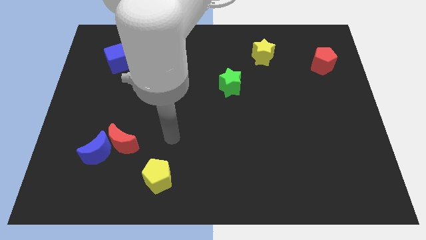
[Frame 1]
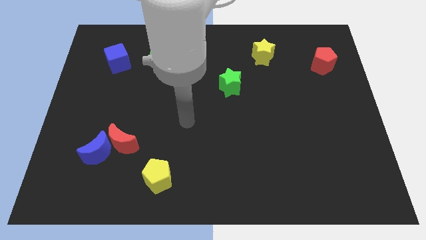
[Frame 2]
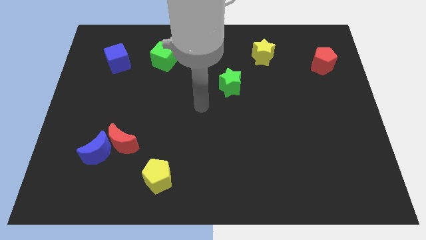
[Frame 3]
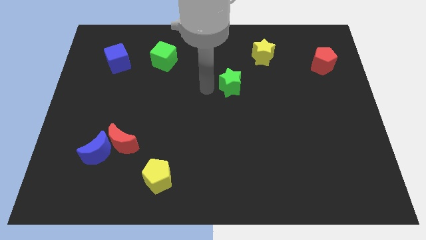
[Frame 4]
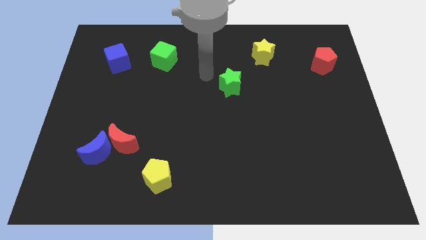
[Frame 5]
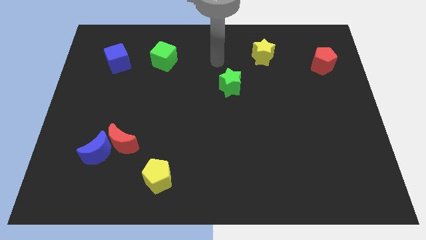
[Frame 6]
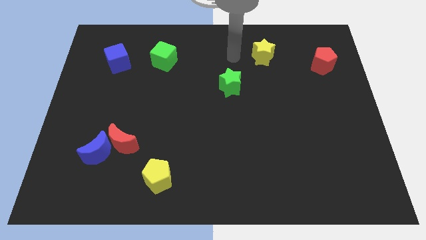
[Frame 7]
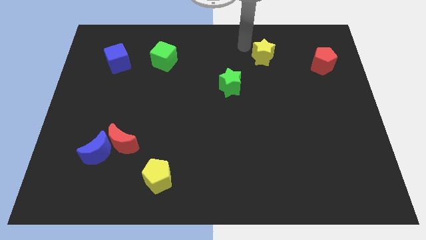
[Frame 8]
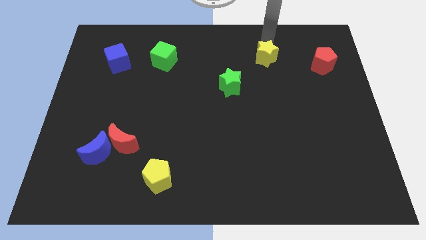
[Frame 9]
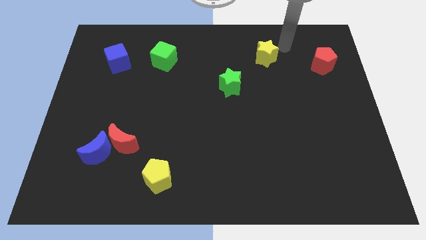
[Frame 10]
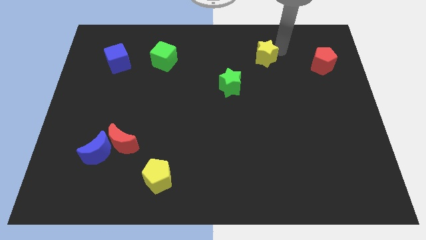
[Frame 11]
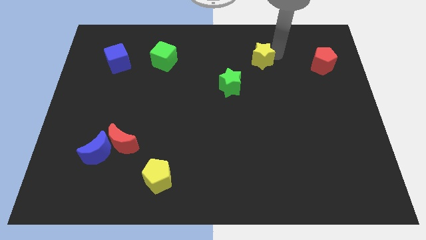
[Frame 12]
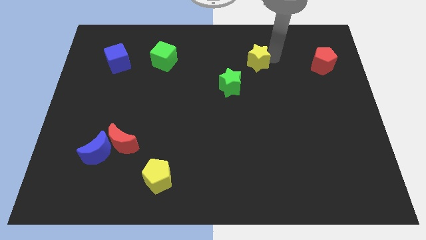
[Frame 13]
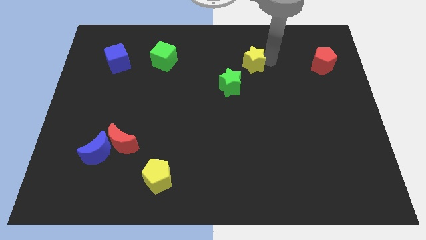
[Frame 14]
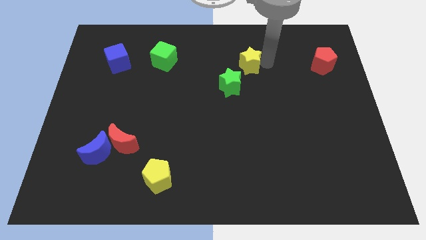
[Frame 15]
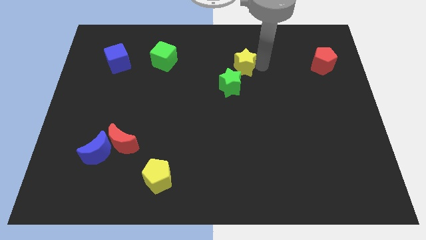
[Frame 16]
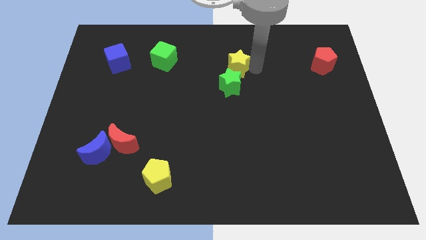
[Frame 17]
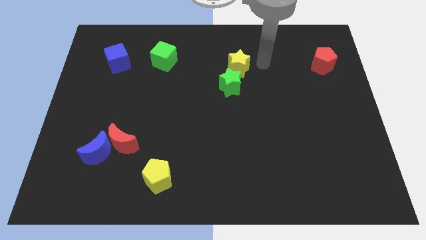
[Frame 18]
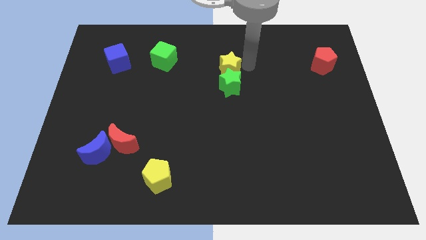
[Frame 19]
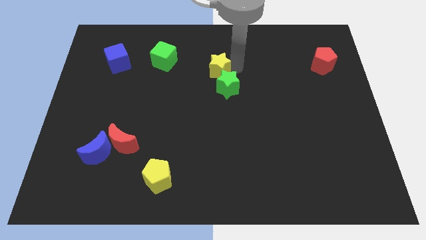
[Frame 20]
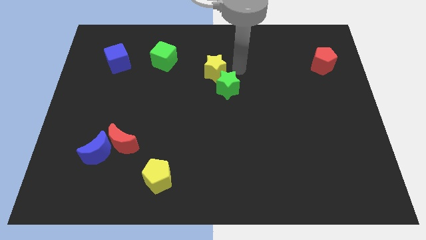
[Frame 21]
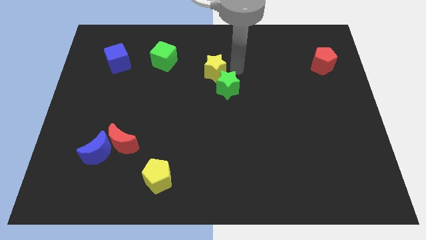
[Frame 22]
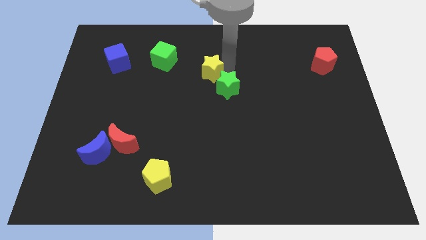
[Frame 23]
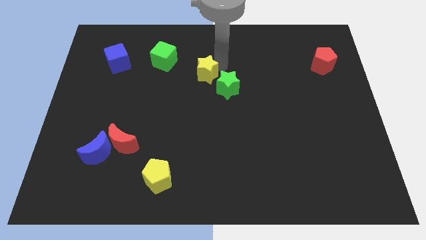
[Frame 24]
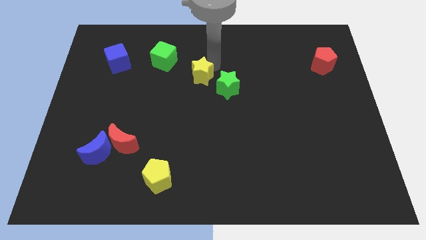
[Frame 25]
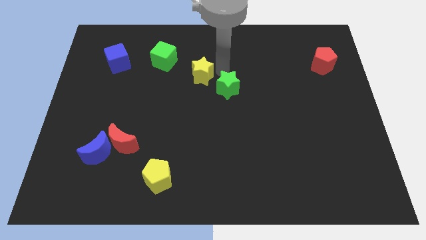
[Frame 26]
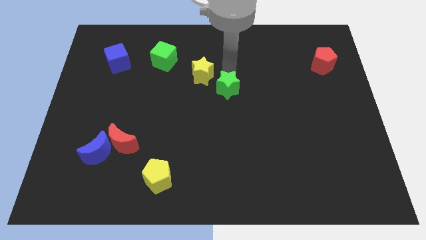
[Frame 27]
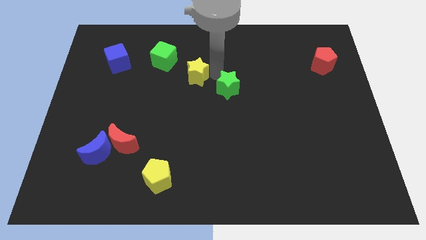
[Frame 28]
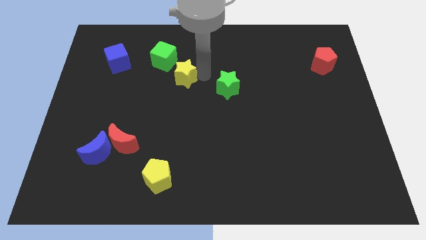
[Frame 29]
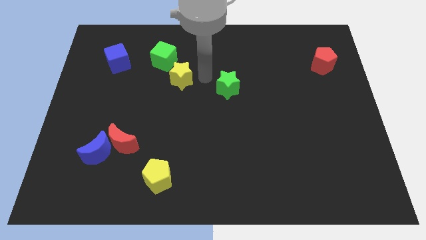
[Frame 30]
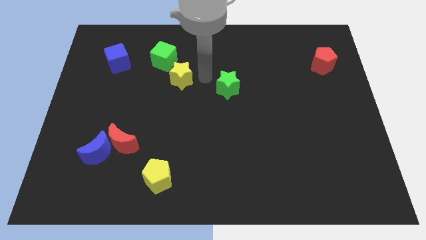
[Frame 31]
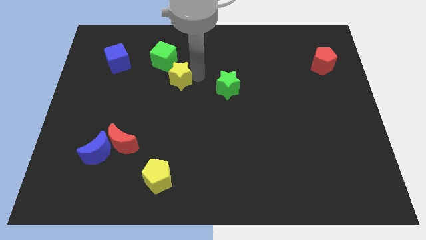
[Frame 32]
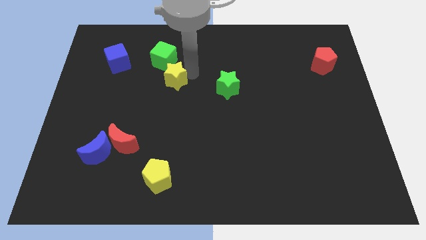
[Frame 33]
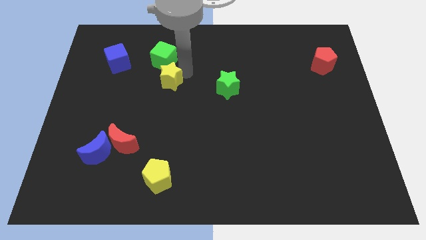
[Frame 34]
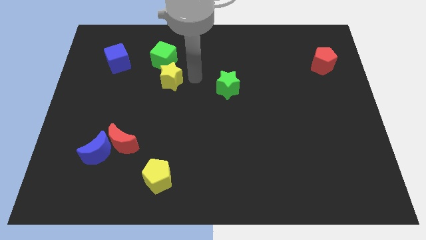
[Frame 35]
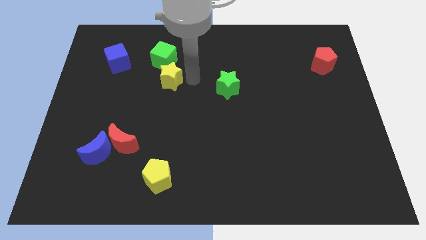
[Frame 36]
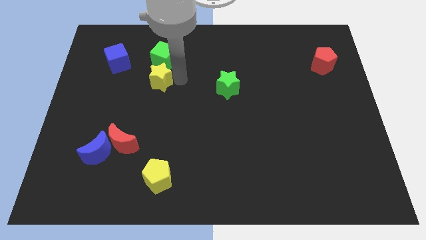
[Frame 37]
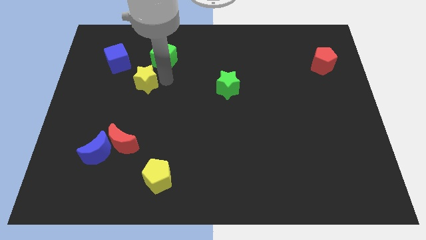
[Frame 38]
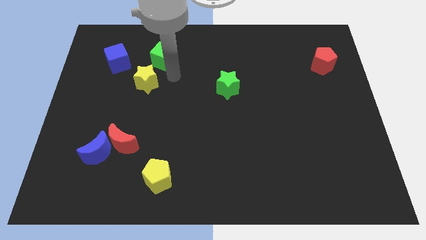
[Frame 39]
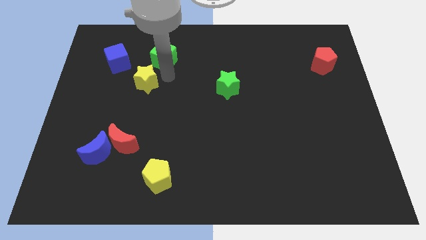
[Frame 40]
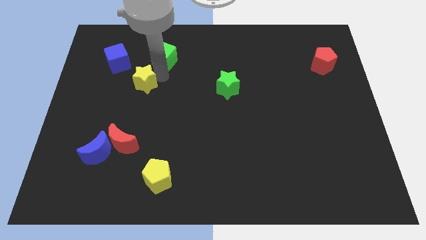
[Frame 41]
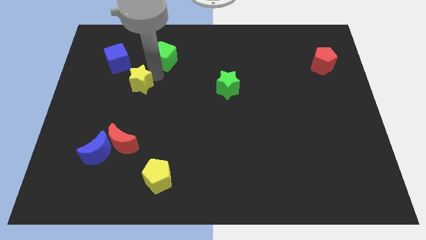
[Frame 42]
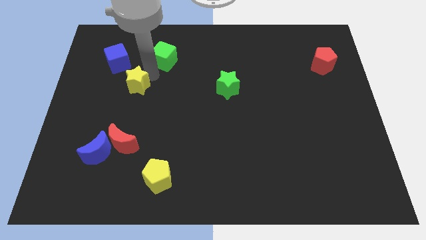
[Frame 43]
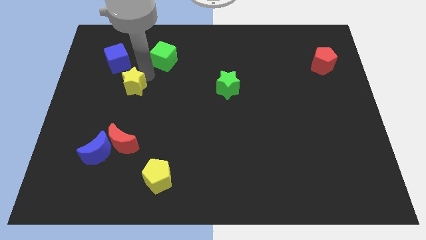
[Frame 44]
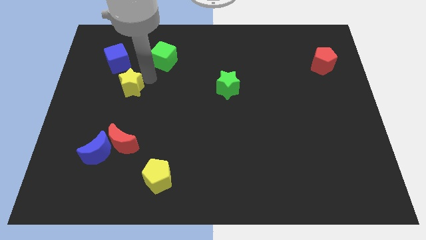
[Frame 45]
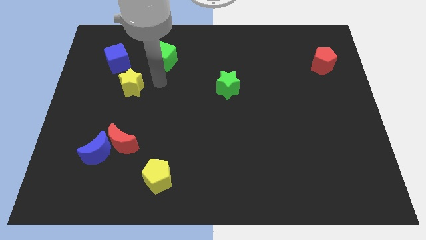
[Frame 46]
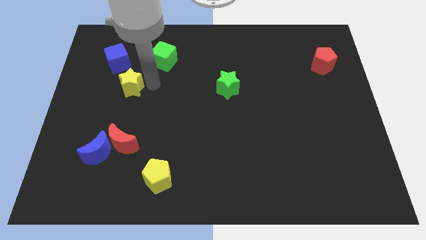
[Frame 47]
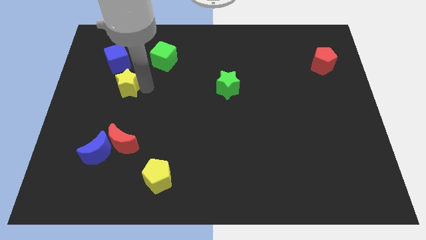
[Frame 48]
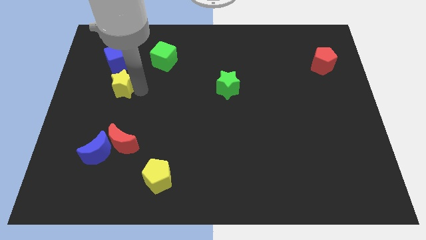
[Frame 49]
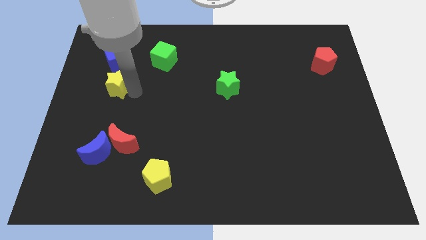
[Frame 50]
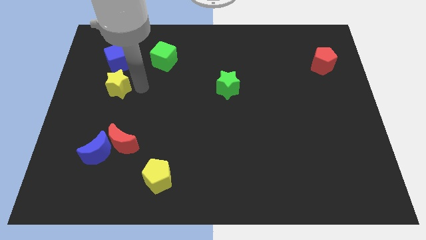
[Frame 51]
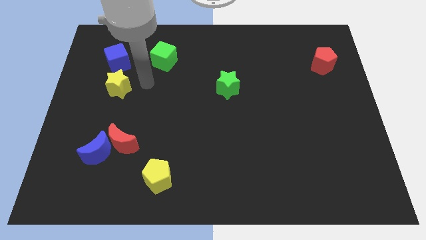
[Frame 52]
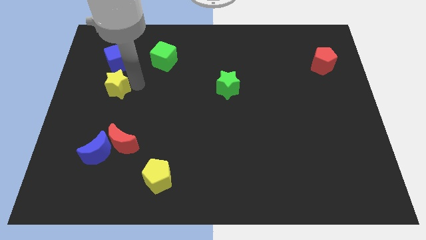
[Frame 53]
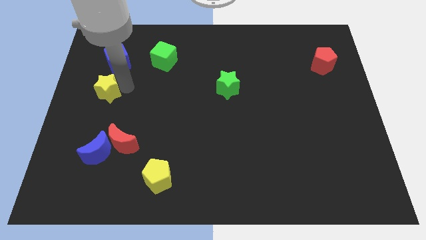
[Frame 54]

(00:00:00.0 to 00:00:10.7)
move the yellow star to the left side

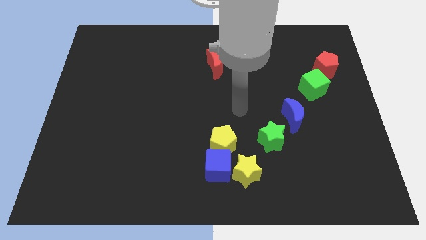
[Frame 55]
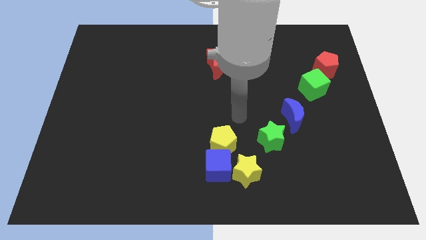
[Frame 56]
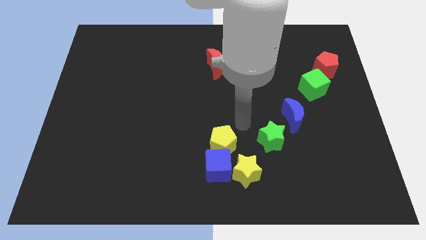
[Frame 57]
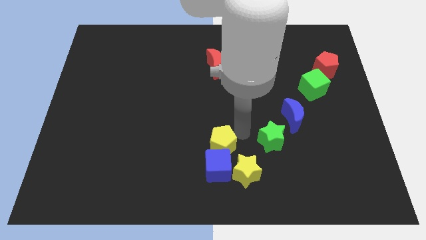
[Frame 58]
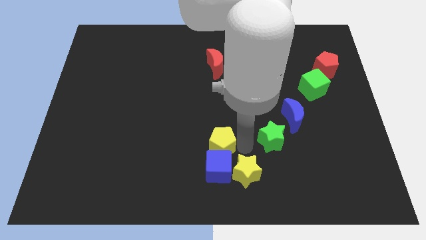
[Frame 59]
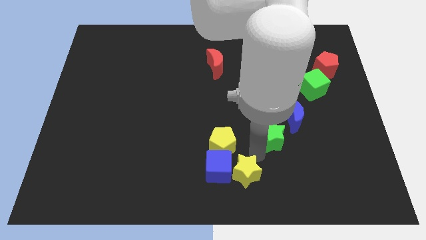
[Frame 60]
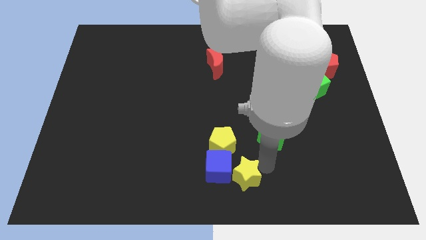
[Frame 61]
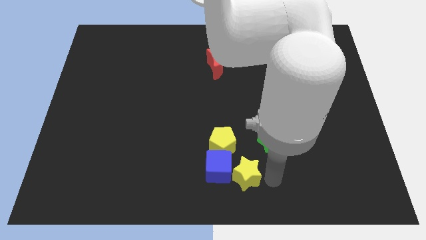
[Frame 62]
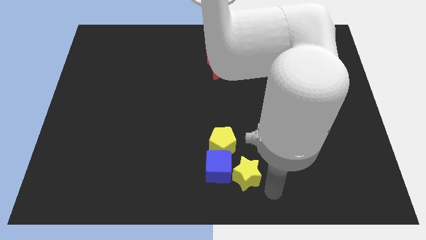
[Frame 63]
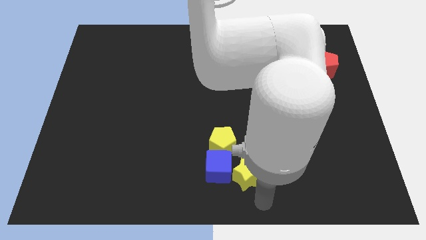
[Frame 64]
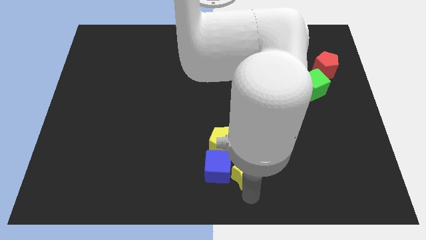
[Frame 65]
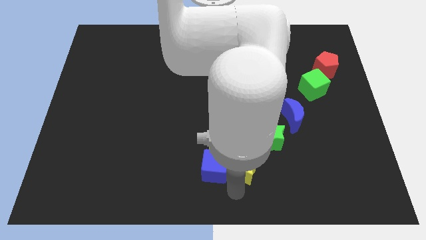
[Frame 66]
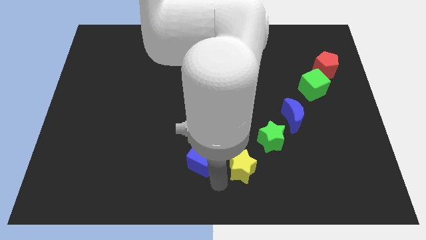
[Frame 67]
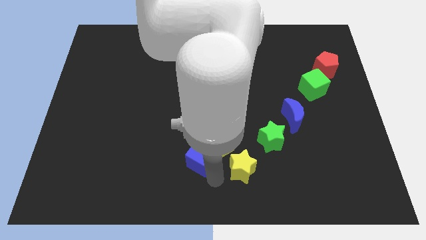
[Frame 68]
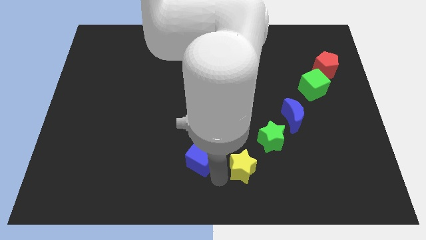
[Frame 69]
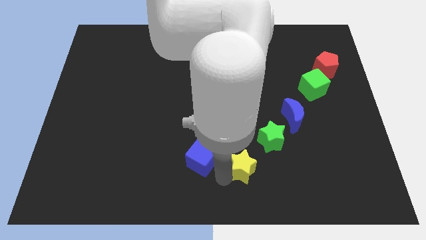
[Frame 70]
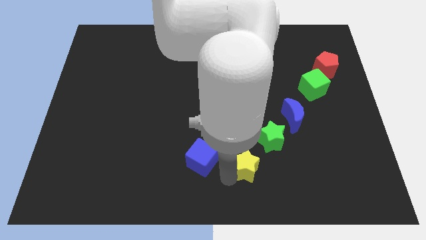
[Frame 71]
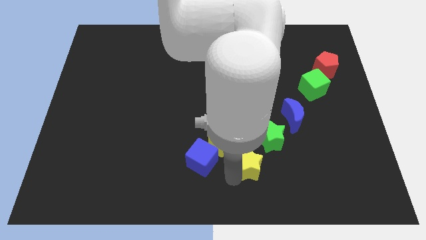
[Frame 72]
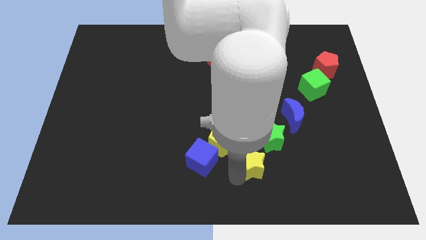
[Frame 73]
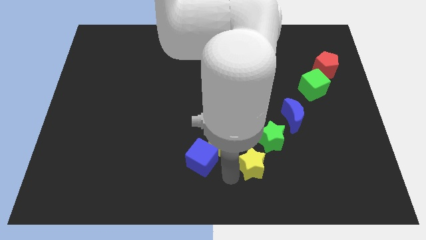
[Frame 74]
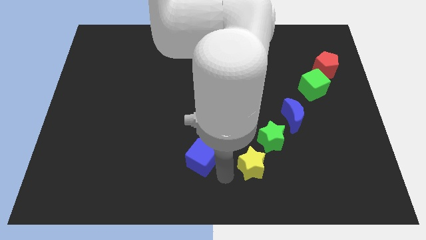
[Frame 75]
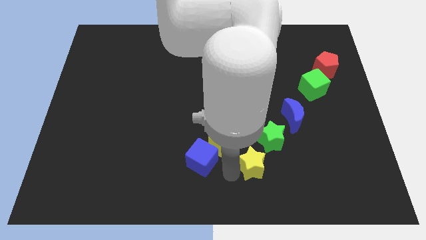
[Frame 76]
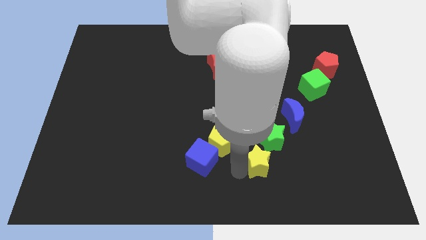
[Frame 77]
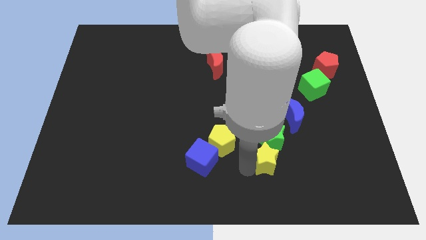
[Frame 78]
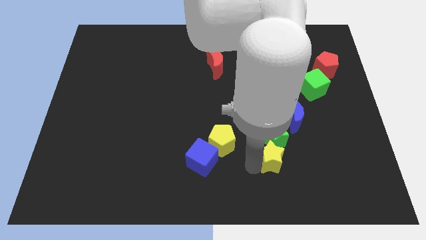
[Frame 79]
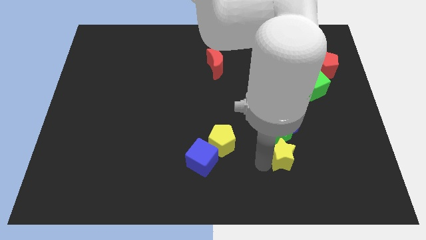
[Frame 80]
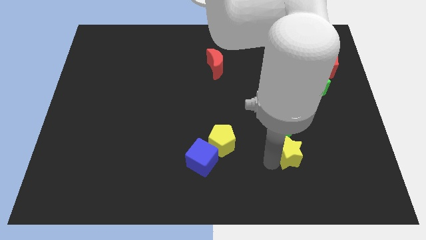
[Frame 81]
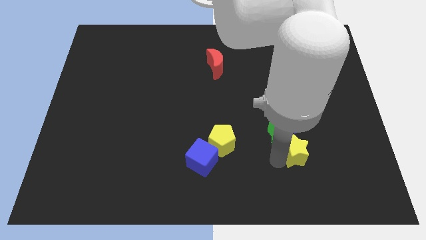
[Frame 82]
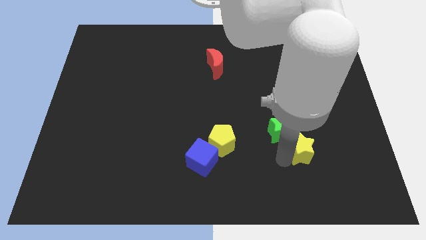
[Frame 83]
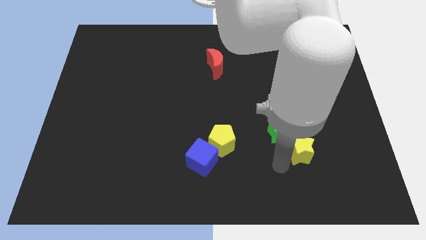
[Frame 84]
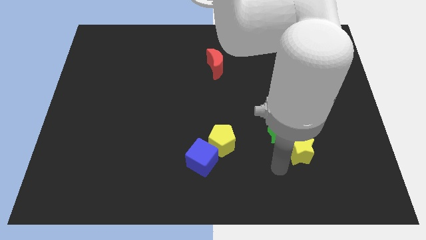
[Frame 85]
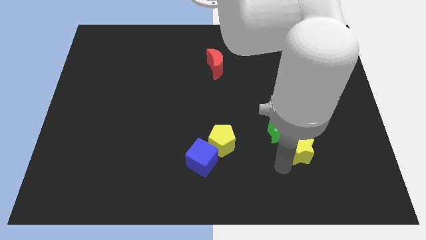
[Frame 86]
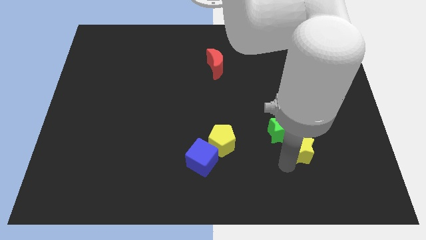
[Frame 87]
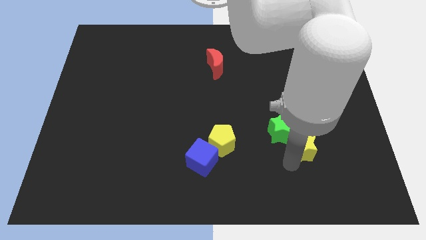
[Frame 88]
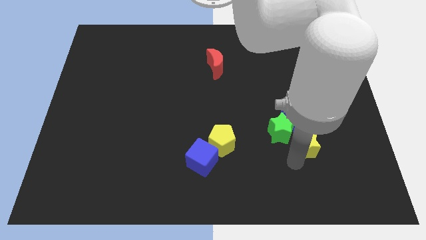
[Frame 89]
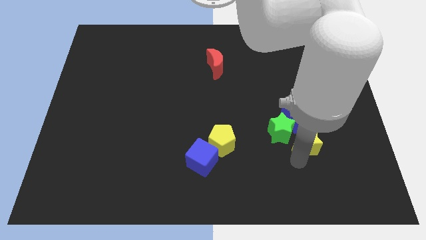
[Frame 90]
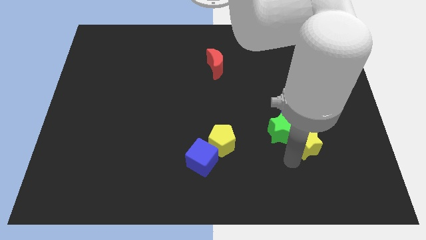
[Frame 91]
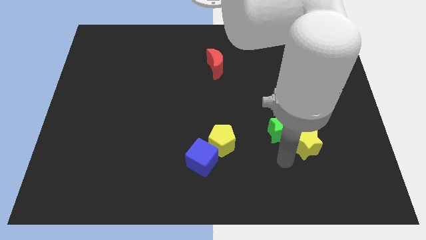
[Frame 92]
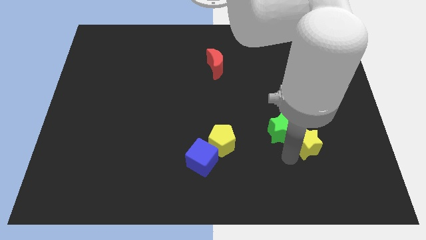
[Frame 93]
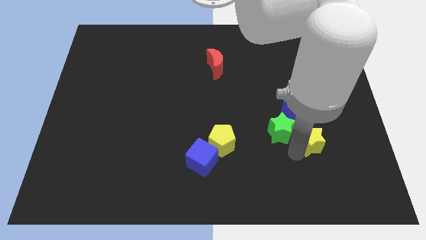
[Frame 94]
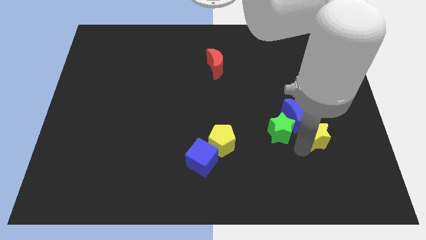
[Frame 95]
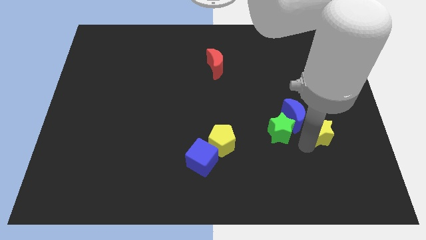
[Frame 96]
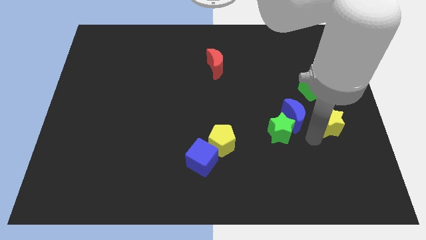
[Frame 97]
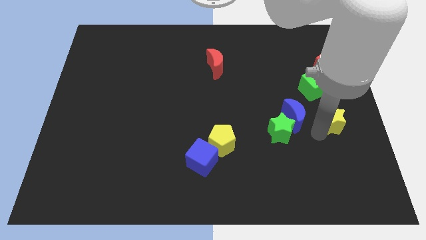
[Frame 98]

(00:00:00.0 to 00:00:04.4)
push the yellow star to the right side
